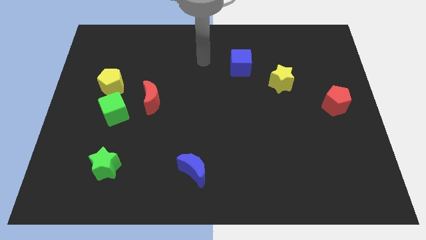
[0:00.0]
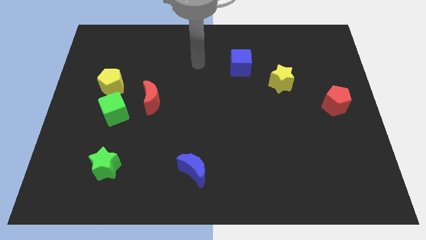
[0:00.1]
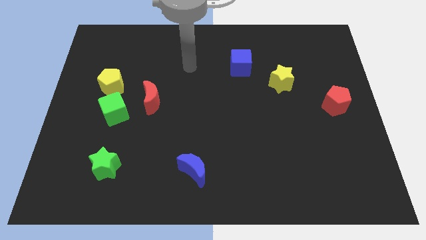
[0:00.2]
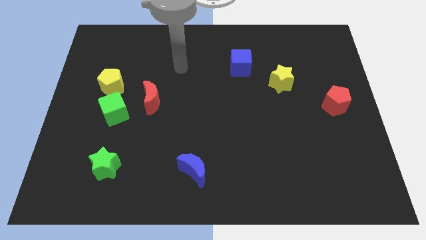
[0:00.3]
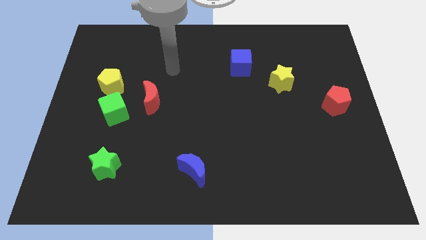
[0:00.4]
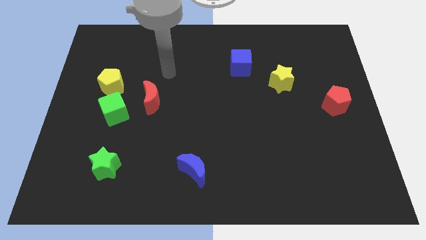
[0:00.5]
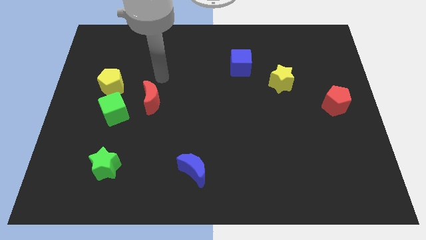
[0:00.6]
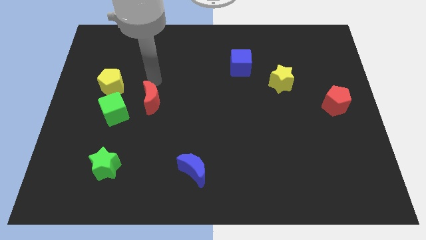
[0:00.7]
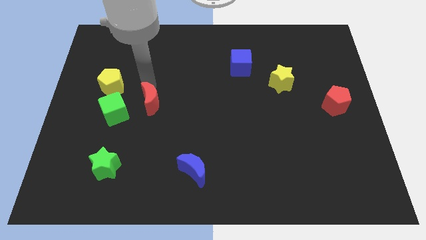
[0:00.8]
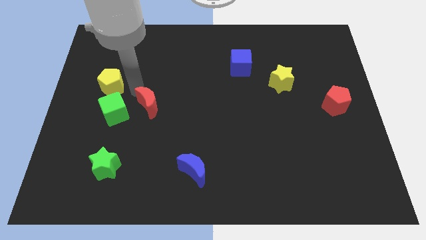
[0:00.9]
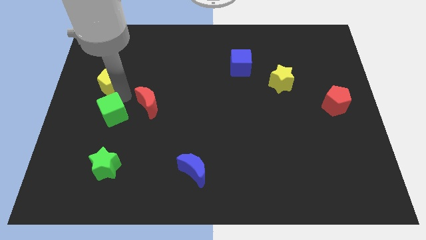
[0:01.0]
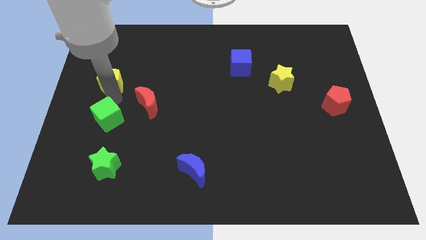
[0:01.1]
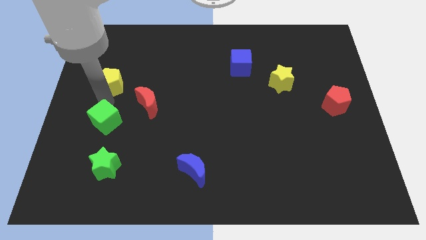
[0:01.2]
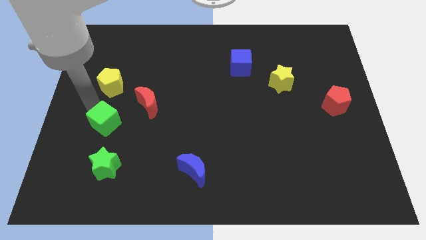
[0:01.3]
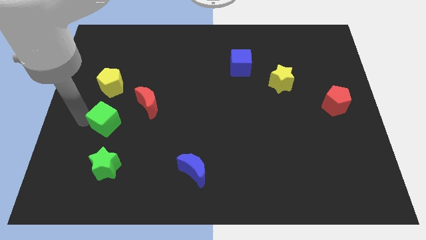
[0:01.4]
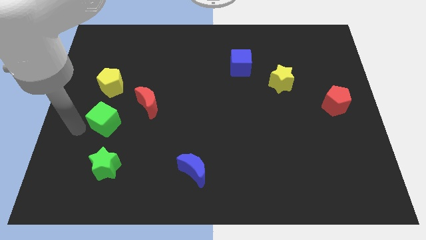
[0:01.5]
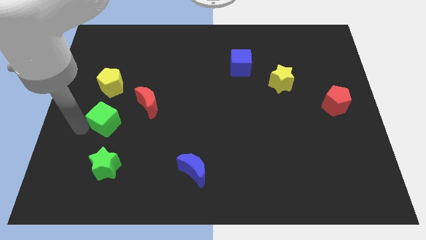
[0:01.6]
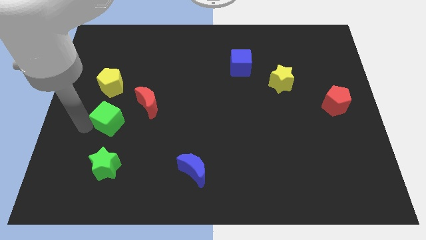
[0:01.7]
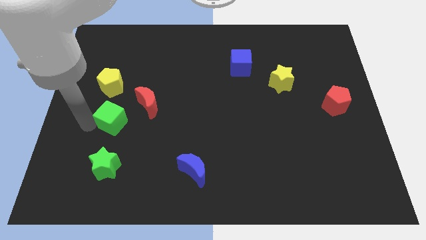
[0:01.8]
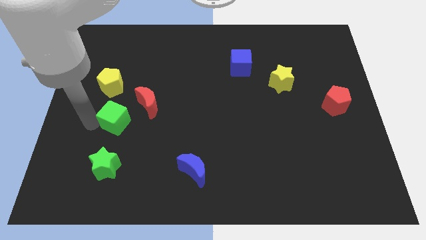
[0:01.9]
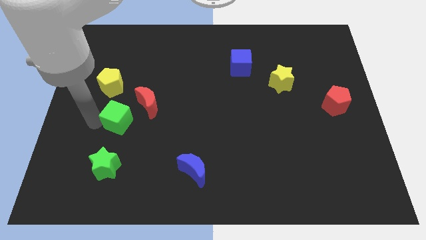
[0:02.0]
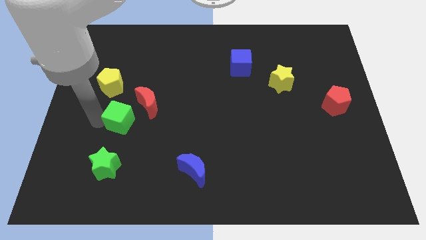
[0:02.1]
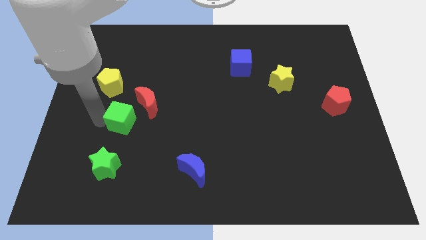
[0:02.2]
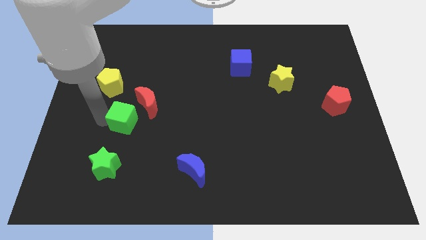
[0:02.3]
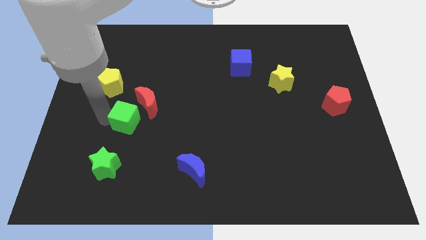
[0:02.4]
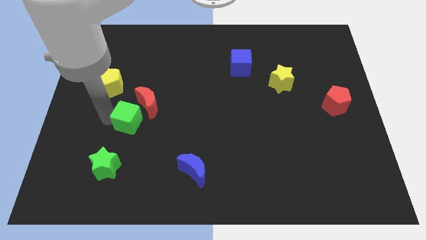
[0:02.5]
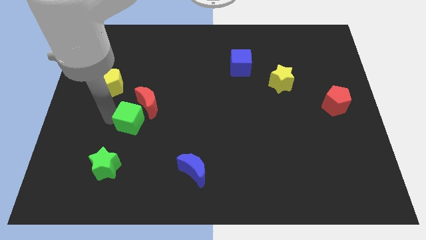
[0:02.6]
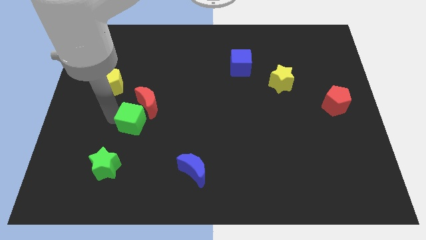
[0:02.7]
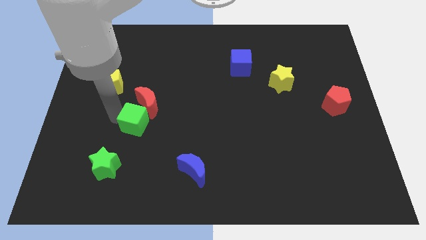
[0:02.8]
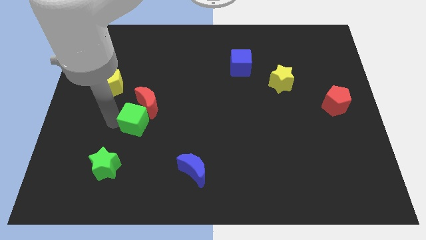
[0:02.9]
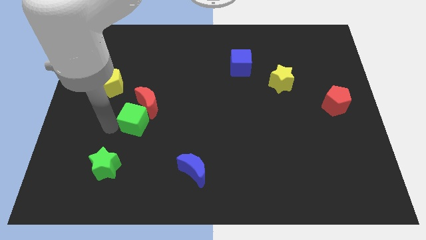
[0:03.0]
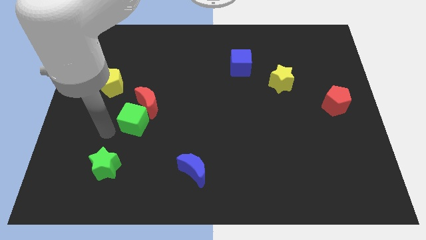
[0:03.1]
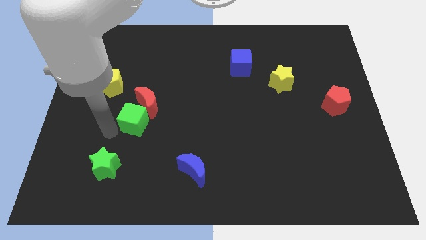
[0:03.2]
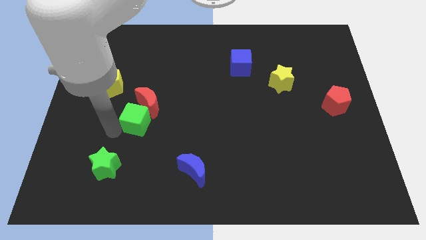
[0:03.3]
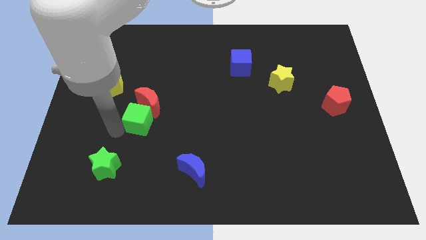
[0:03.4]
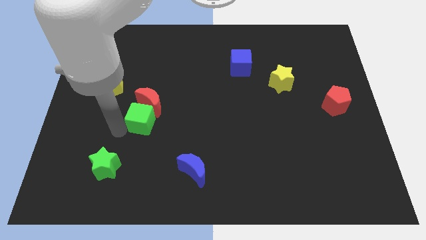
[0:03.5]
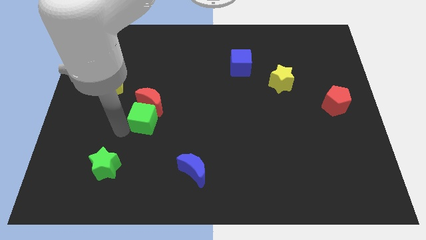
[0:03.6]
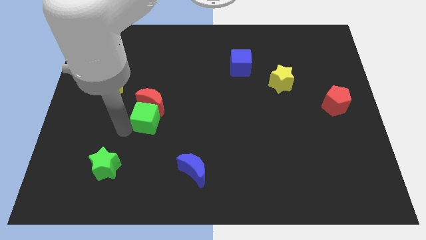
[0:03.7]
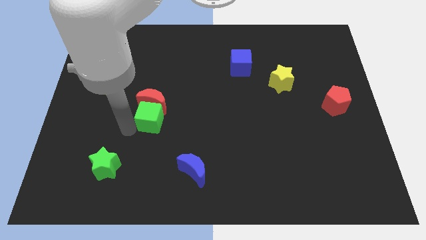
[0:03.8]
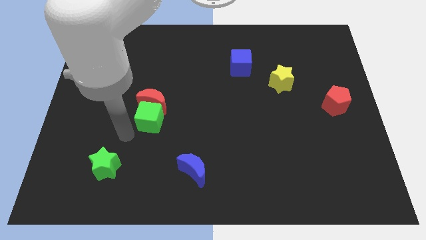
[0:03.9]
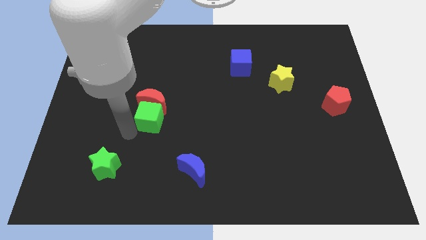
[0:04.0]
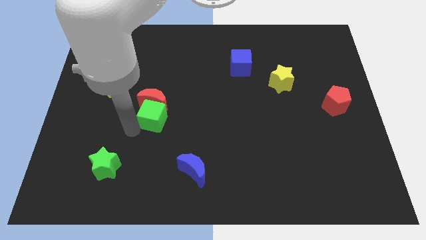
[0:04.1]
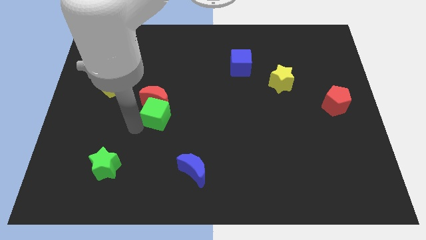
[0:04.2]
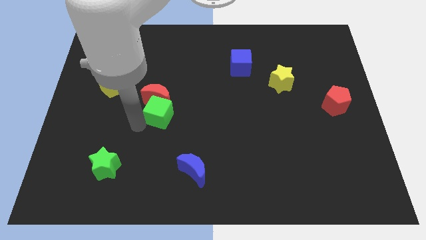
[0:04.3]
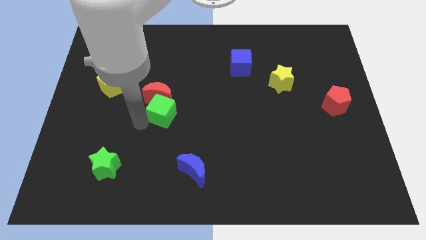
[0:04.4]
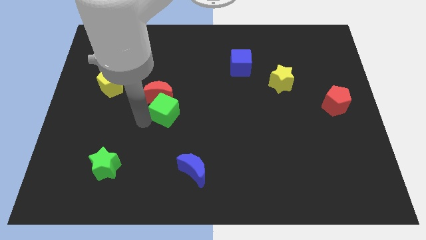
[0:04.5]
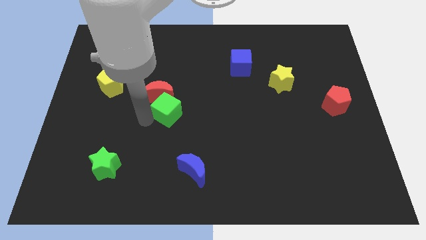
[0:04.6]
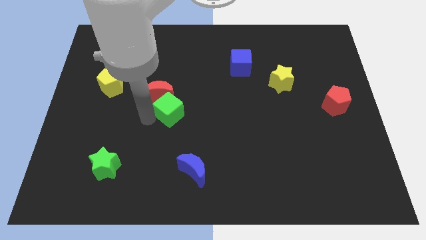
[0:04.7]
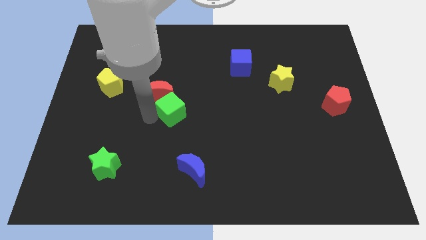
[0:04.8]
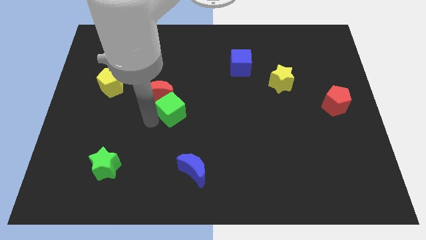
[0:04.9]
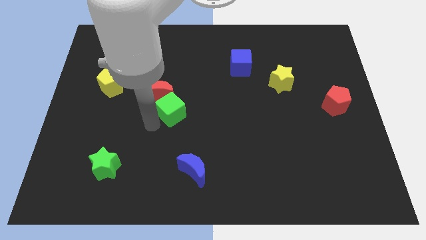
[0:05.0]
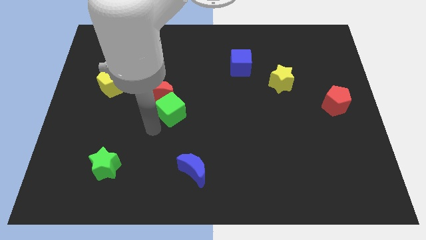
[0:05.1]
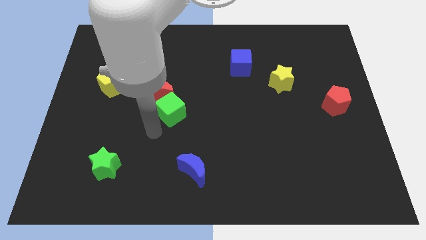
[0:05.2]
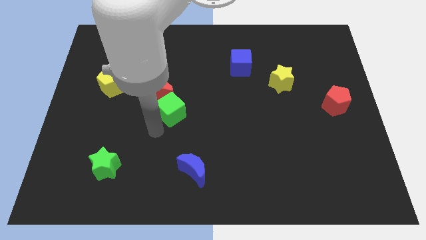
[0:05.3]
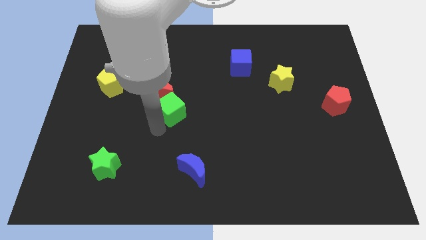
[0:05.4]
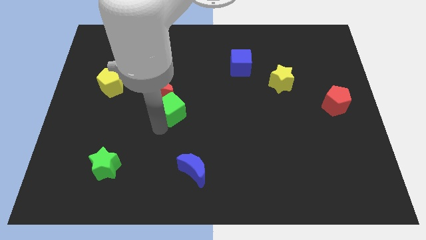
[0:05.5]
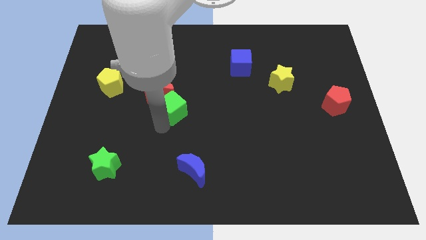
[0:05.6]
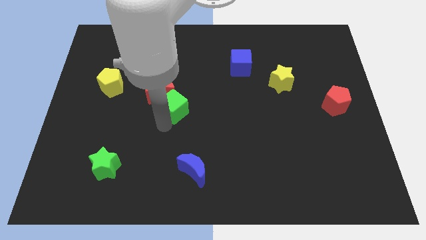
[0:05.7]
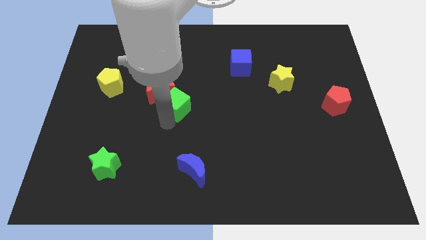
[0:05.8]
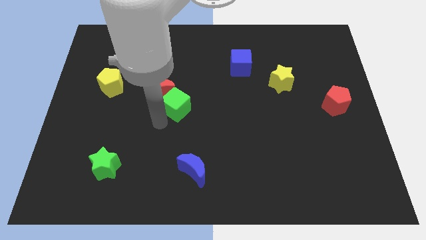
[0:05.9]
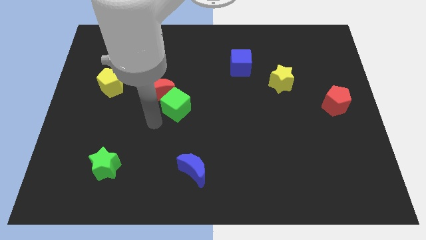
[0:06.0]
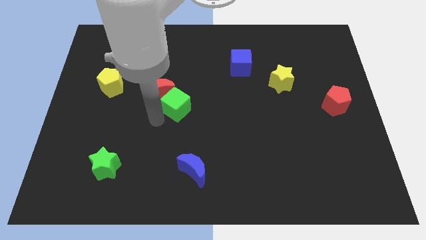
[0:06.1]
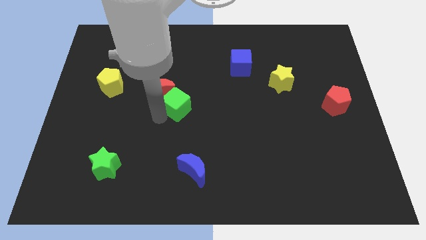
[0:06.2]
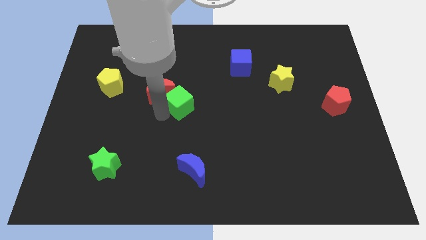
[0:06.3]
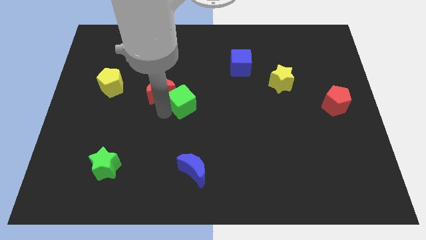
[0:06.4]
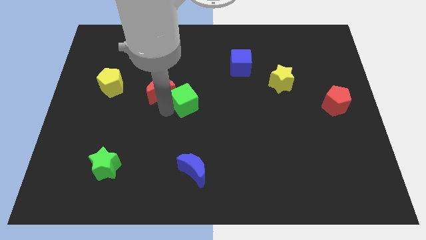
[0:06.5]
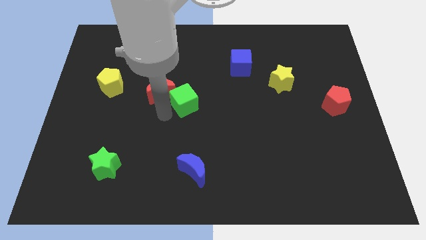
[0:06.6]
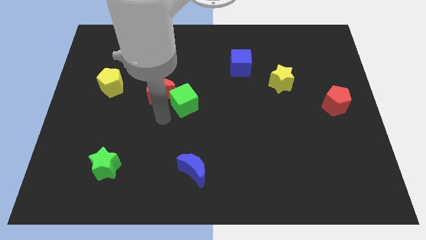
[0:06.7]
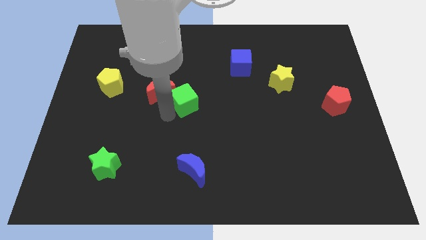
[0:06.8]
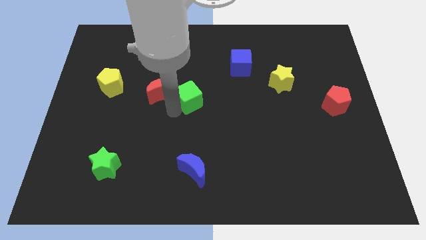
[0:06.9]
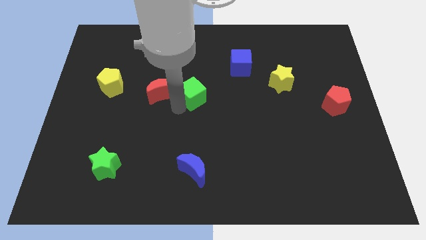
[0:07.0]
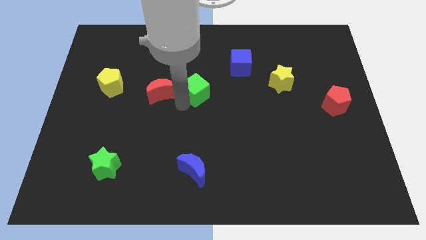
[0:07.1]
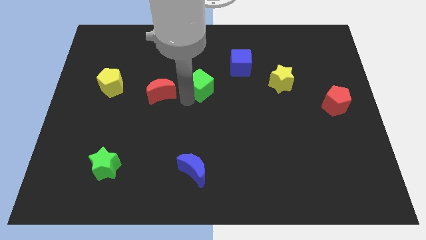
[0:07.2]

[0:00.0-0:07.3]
move the green cube to the bottom left side of the blue cube

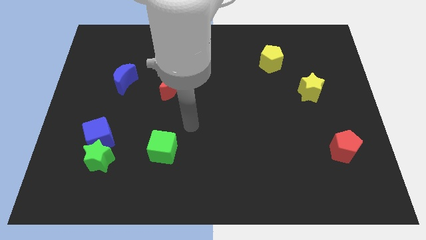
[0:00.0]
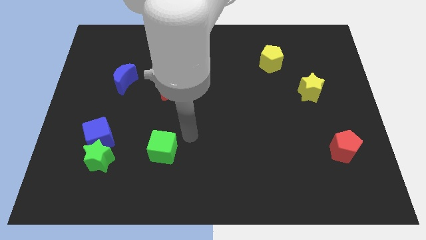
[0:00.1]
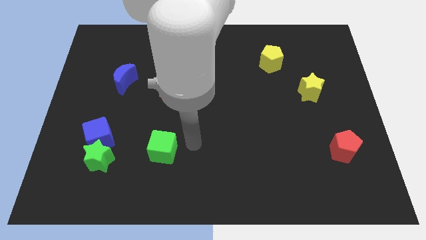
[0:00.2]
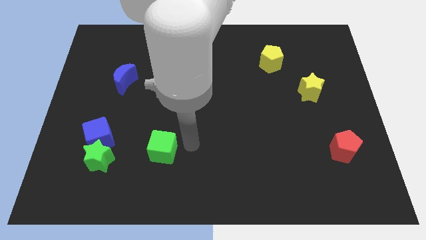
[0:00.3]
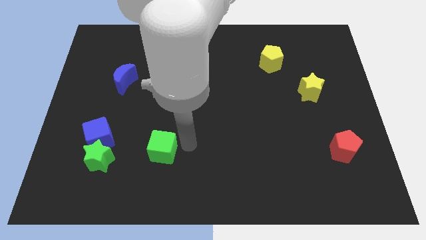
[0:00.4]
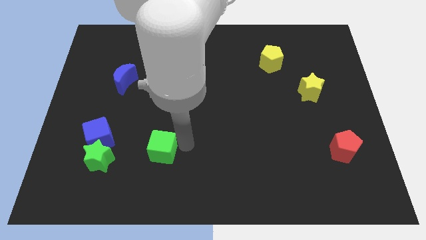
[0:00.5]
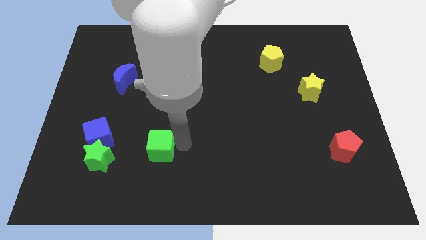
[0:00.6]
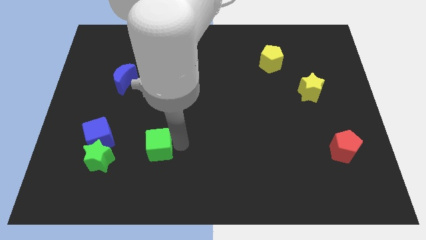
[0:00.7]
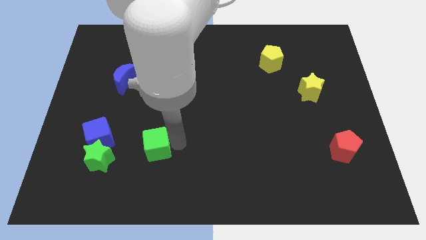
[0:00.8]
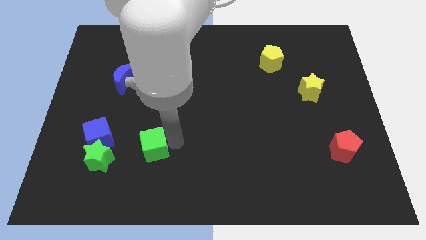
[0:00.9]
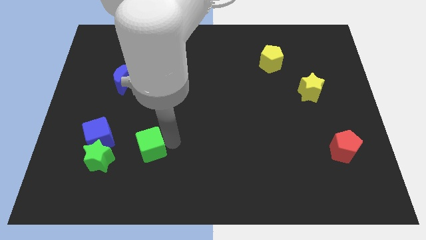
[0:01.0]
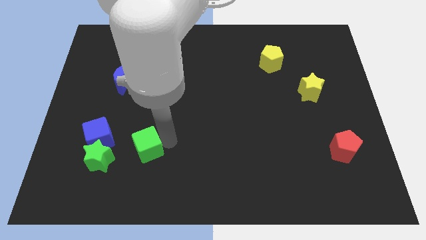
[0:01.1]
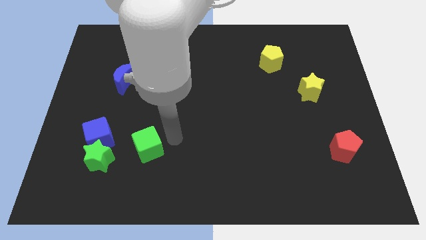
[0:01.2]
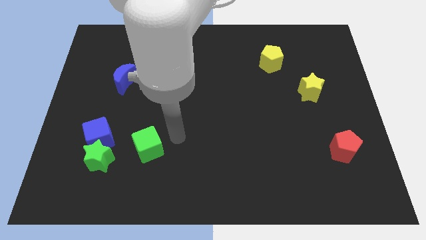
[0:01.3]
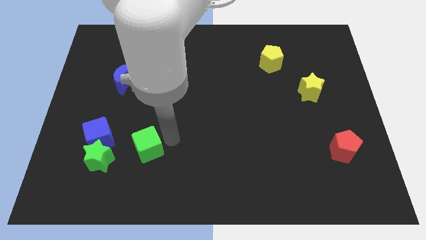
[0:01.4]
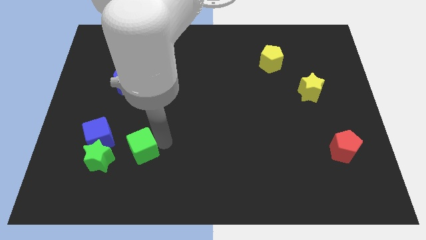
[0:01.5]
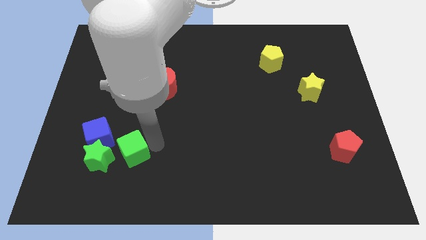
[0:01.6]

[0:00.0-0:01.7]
put the green cube to the bottom right side of the blue cube
